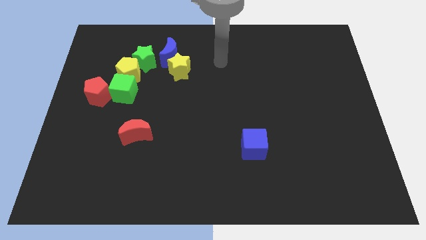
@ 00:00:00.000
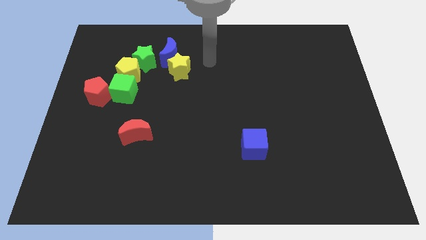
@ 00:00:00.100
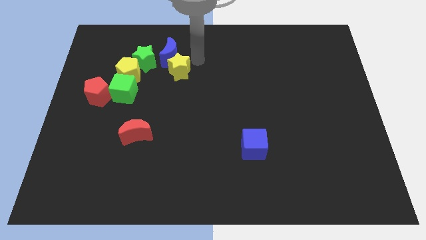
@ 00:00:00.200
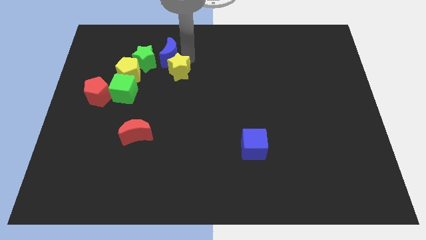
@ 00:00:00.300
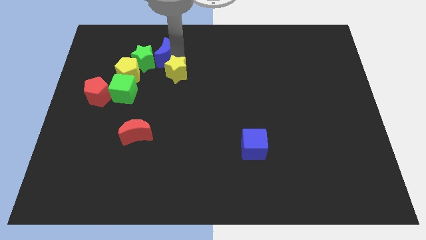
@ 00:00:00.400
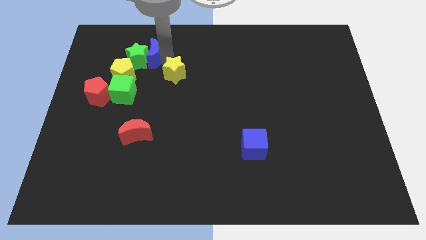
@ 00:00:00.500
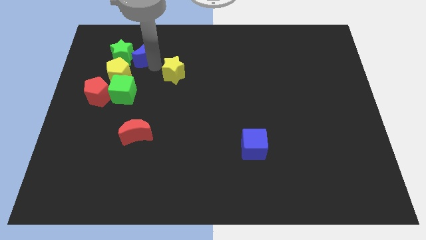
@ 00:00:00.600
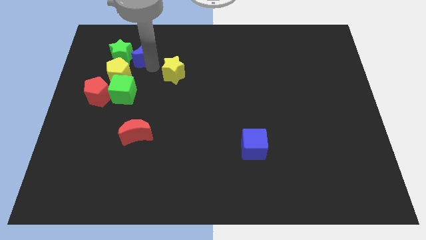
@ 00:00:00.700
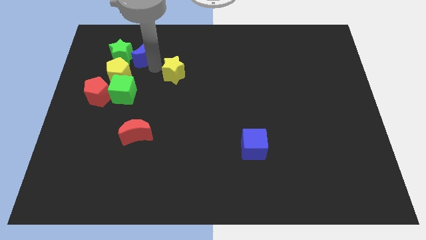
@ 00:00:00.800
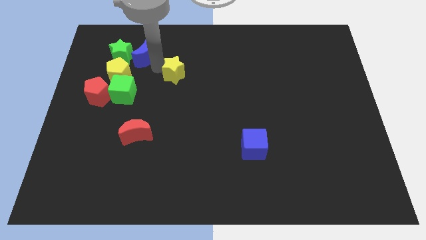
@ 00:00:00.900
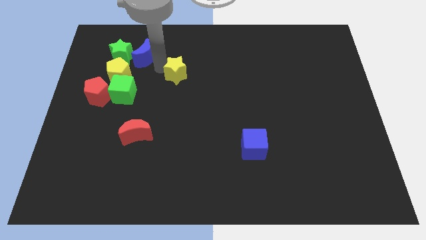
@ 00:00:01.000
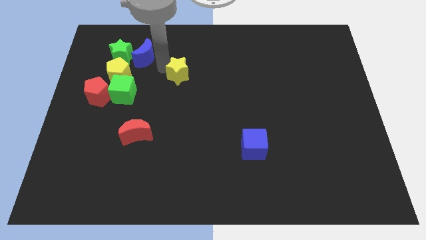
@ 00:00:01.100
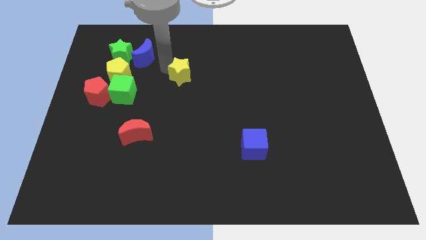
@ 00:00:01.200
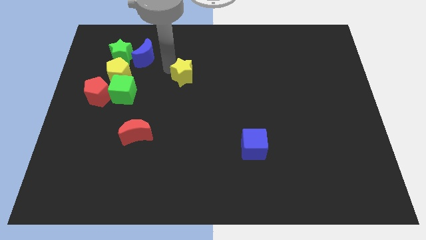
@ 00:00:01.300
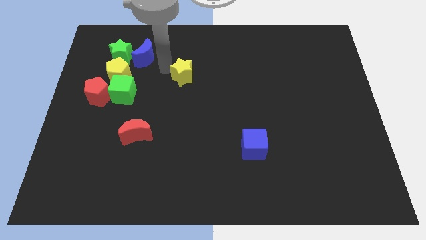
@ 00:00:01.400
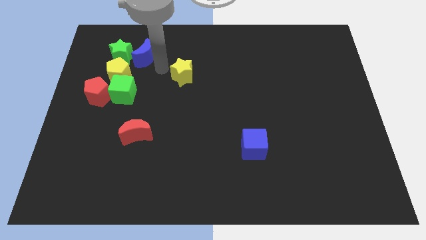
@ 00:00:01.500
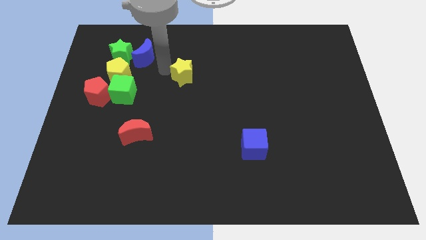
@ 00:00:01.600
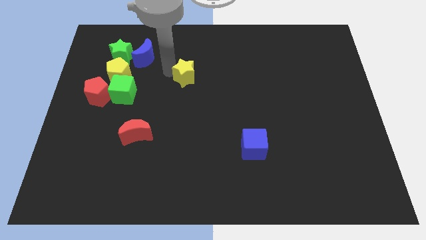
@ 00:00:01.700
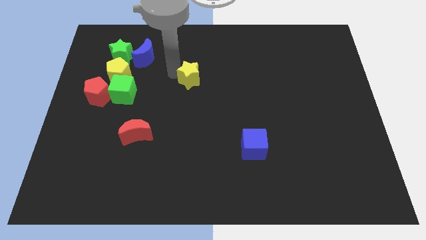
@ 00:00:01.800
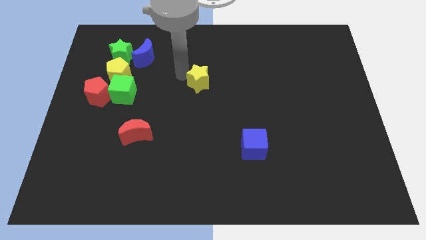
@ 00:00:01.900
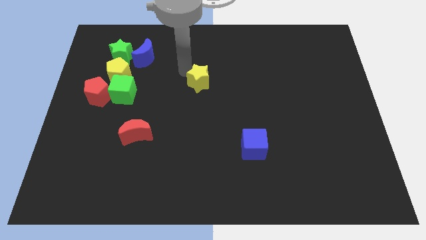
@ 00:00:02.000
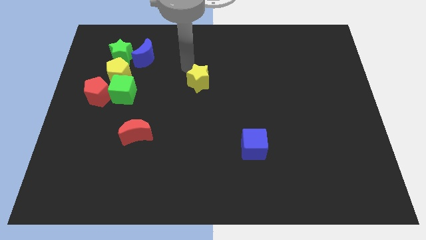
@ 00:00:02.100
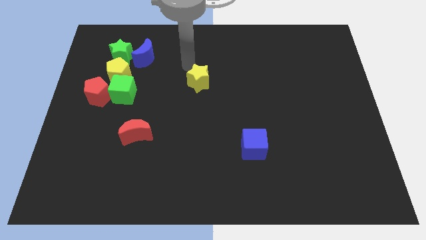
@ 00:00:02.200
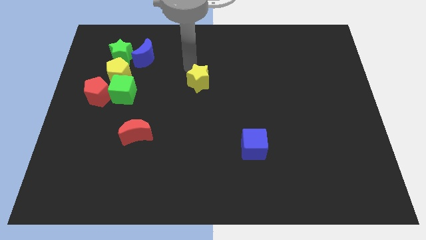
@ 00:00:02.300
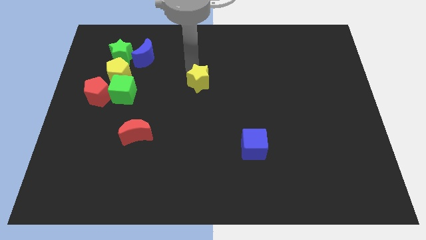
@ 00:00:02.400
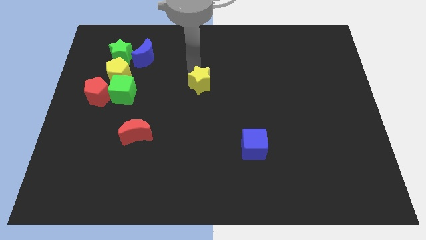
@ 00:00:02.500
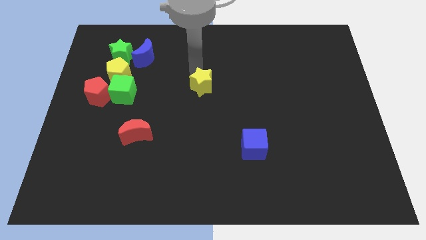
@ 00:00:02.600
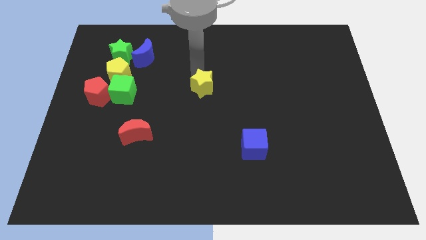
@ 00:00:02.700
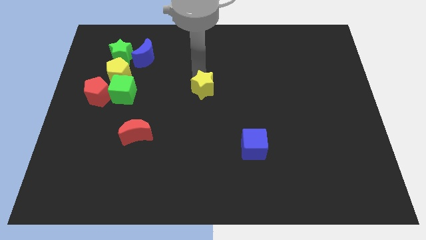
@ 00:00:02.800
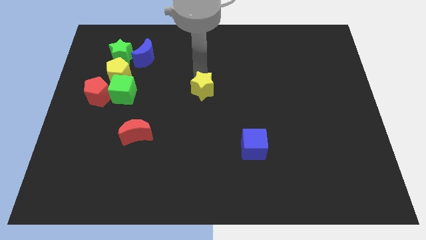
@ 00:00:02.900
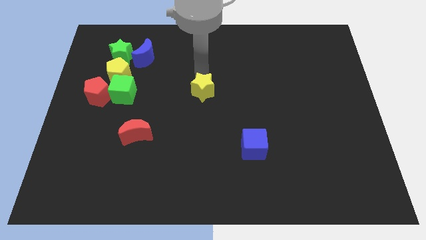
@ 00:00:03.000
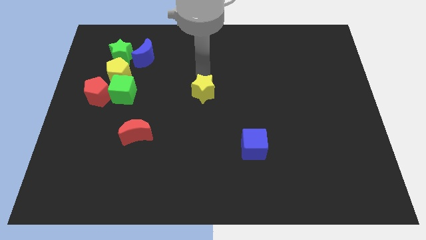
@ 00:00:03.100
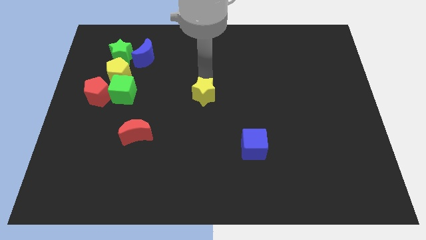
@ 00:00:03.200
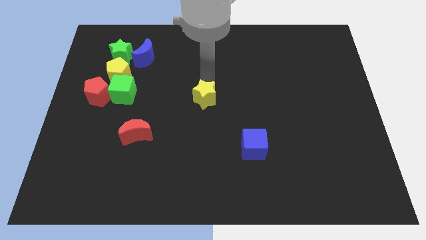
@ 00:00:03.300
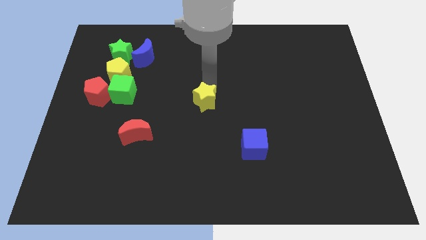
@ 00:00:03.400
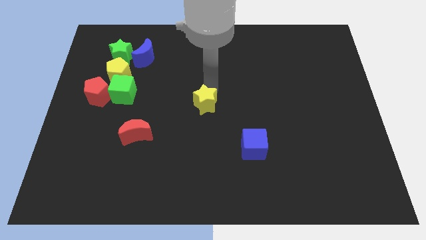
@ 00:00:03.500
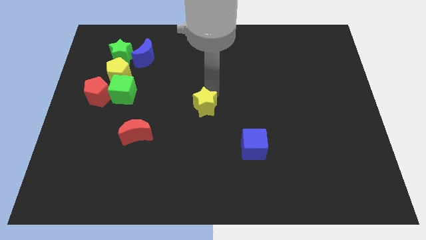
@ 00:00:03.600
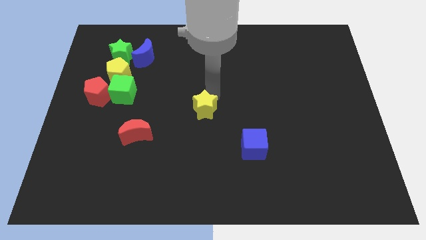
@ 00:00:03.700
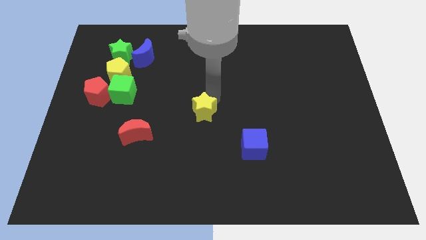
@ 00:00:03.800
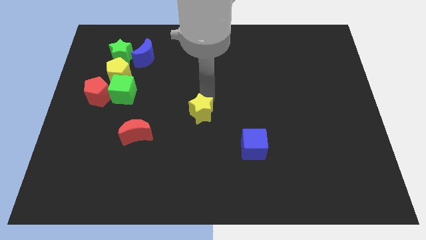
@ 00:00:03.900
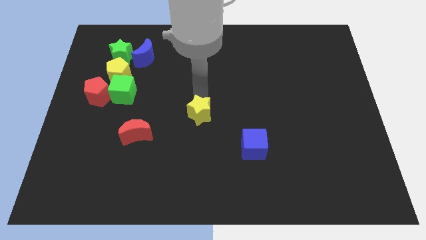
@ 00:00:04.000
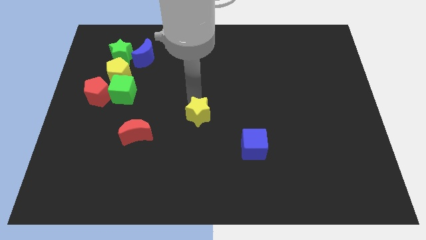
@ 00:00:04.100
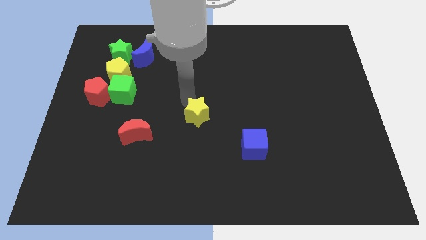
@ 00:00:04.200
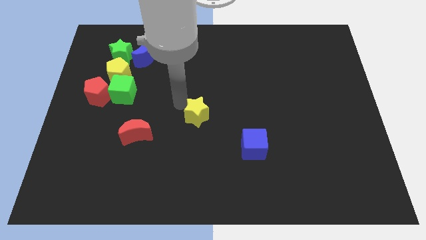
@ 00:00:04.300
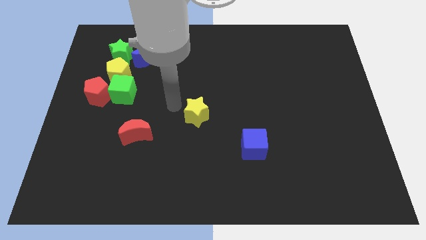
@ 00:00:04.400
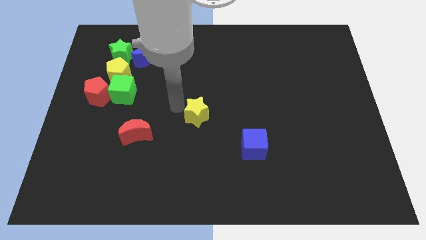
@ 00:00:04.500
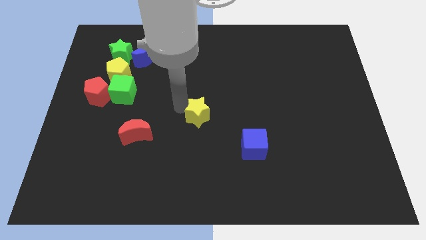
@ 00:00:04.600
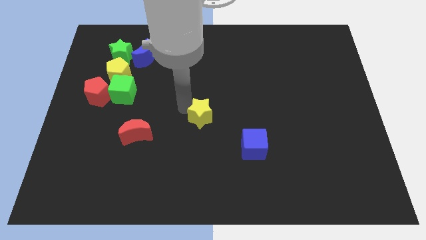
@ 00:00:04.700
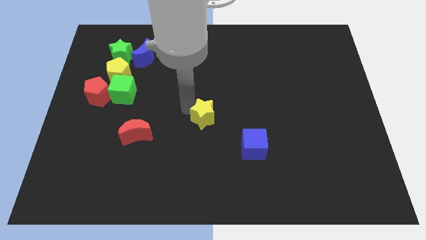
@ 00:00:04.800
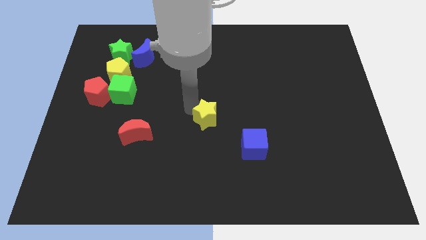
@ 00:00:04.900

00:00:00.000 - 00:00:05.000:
slide the yellow star diagonally up and to the left of the blue cube

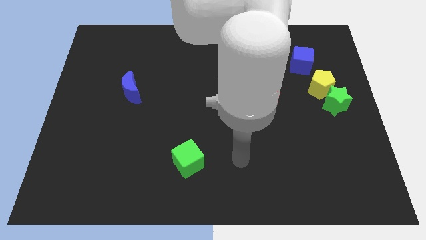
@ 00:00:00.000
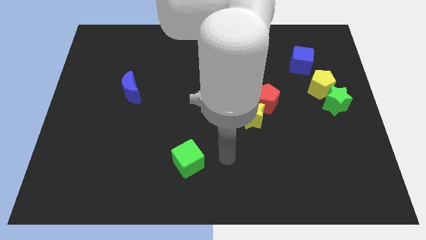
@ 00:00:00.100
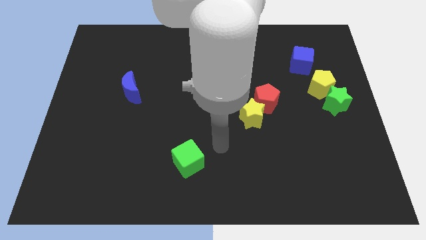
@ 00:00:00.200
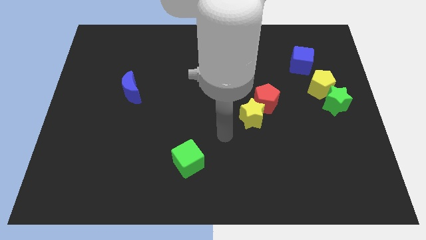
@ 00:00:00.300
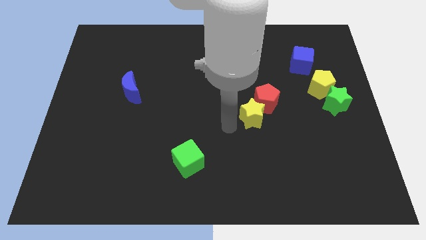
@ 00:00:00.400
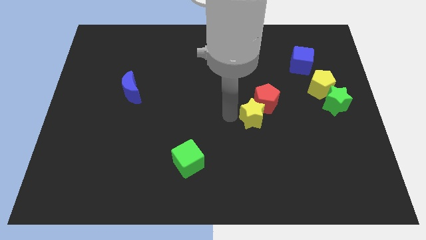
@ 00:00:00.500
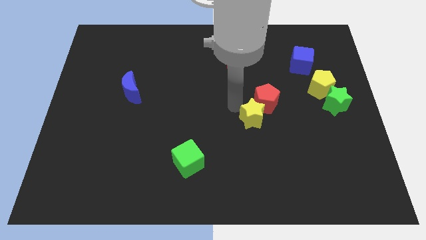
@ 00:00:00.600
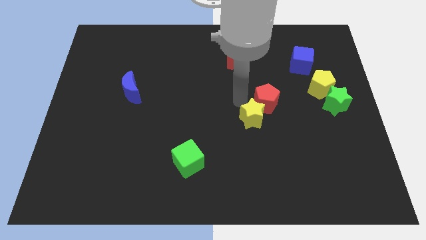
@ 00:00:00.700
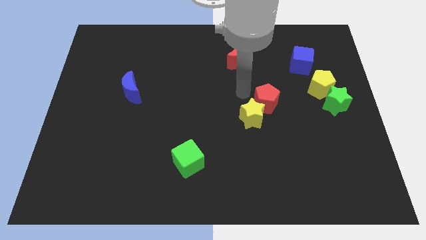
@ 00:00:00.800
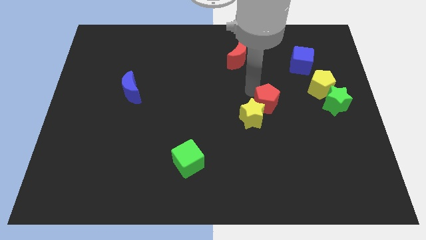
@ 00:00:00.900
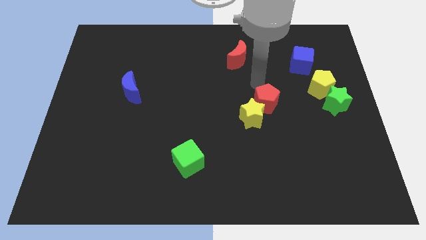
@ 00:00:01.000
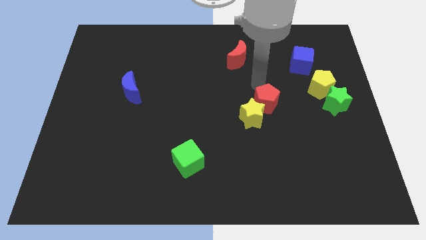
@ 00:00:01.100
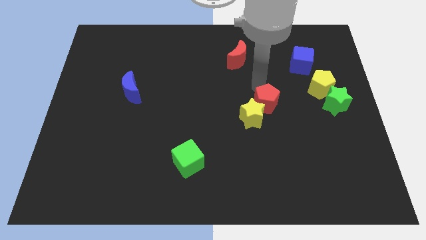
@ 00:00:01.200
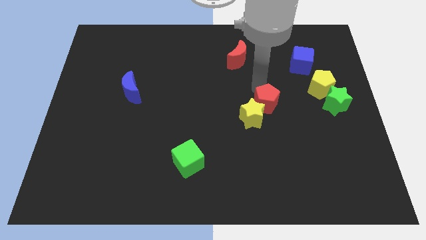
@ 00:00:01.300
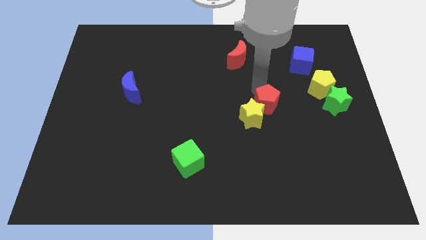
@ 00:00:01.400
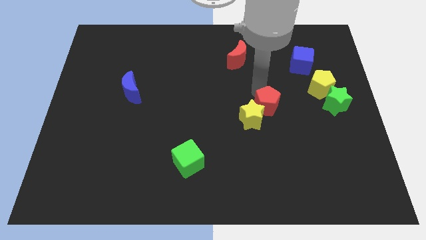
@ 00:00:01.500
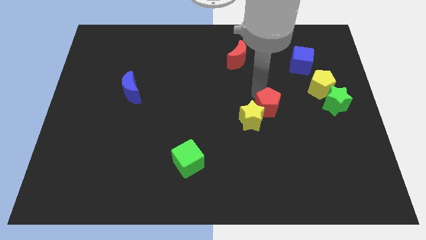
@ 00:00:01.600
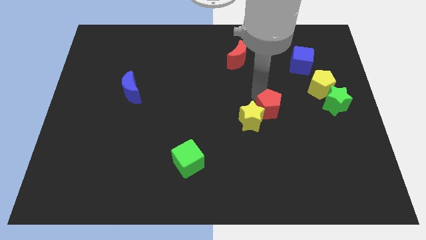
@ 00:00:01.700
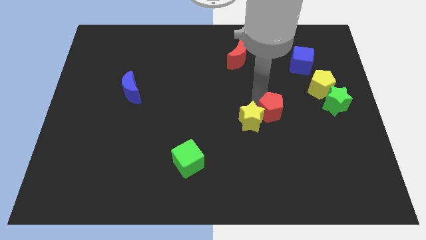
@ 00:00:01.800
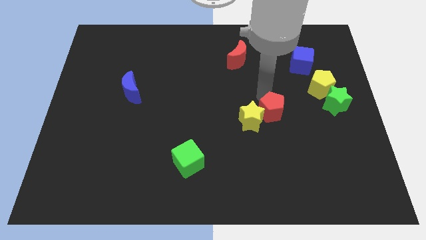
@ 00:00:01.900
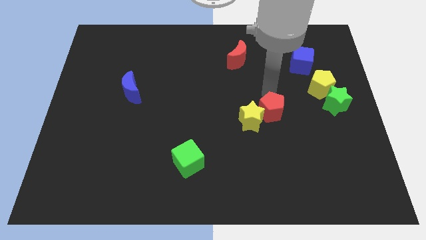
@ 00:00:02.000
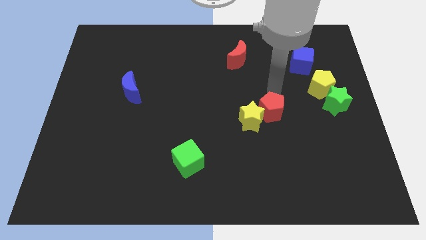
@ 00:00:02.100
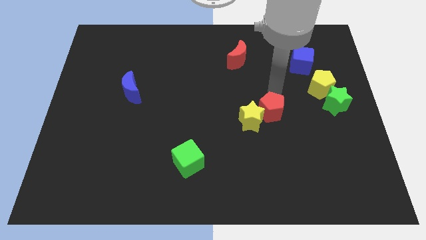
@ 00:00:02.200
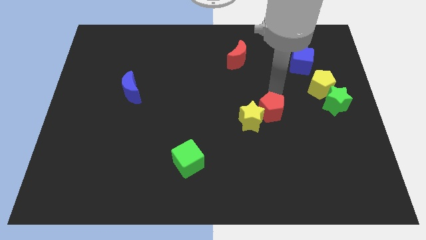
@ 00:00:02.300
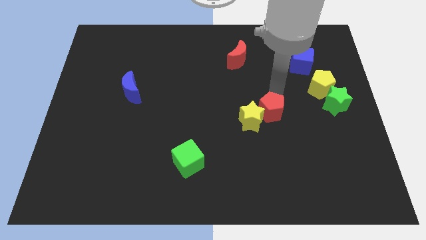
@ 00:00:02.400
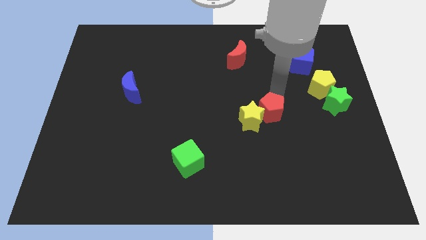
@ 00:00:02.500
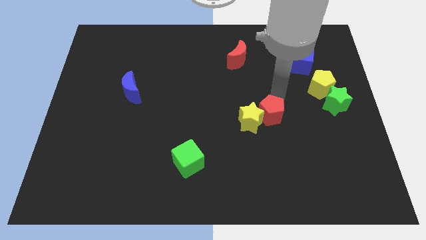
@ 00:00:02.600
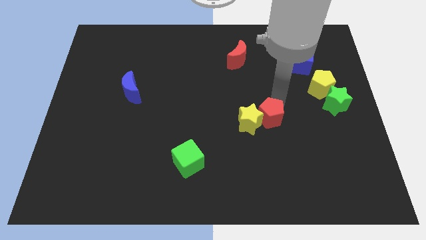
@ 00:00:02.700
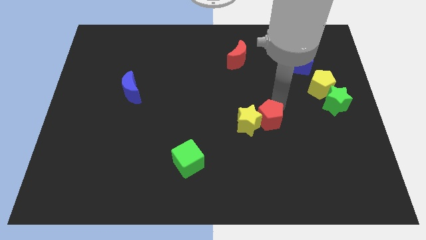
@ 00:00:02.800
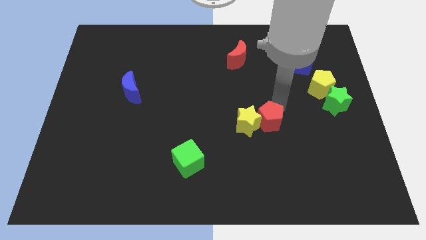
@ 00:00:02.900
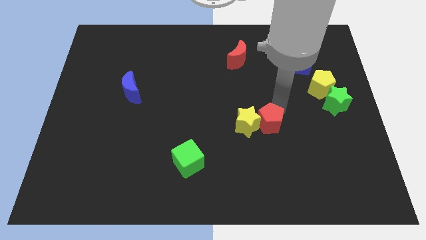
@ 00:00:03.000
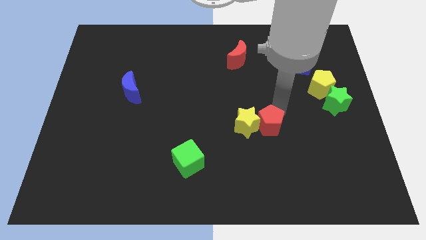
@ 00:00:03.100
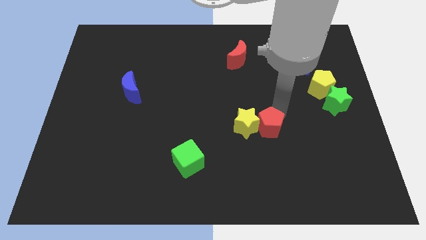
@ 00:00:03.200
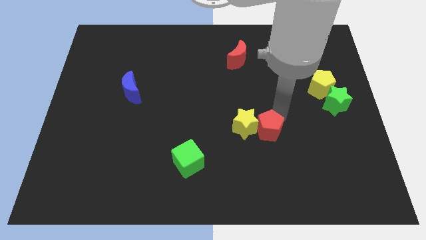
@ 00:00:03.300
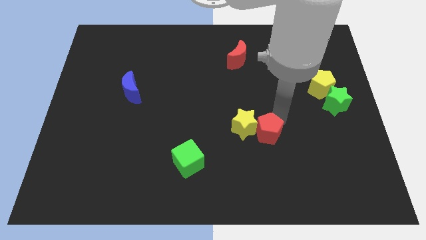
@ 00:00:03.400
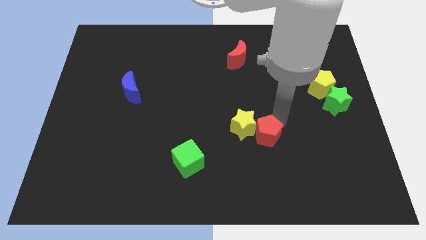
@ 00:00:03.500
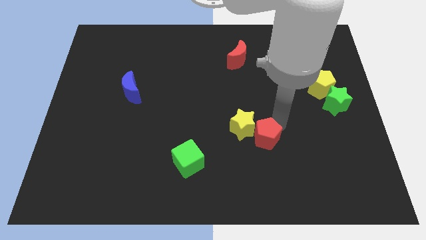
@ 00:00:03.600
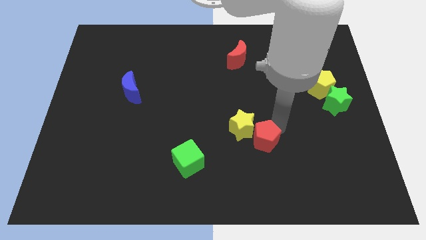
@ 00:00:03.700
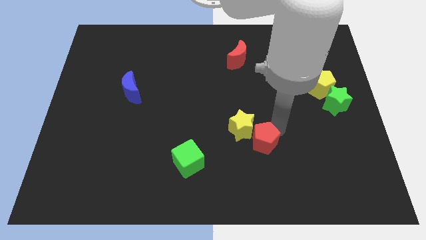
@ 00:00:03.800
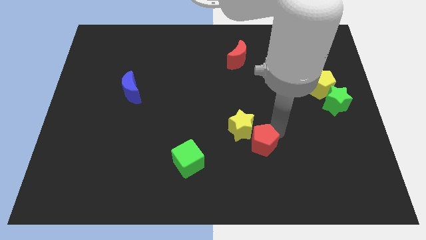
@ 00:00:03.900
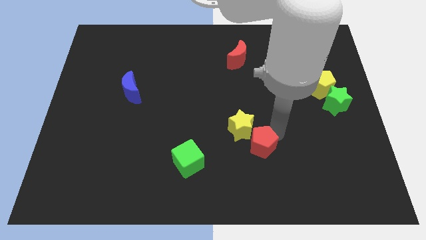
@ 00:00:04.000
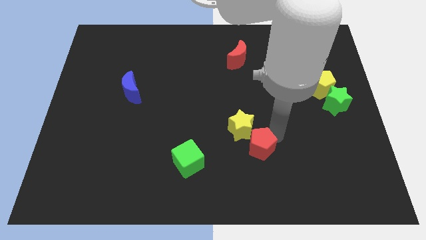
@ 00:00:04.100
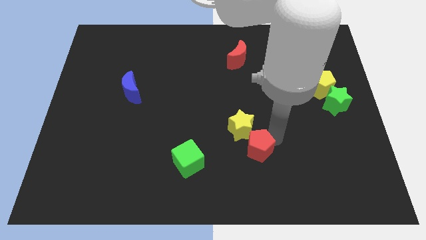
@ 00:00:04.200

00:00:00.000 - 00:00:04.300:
slide the red pentagon right of the green cube
